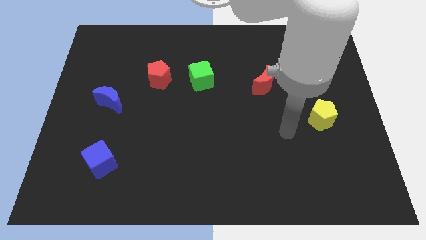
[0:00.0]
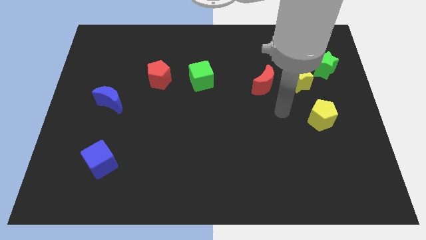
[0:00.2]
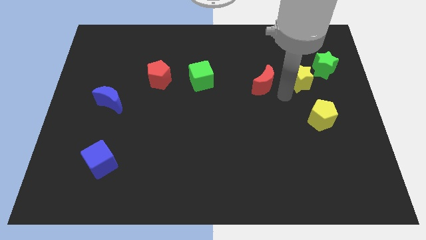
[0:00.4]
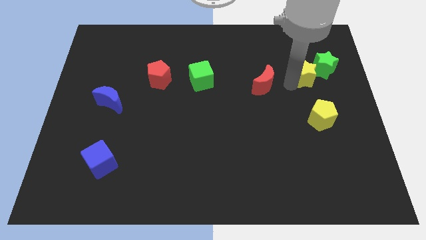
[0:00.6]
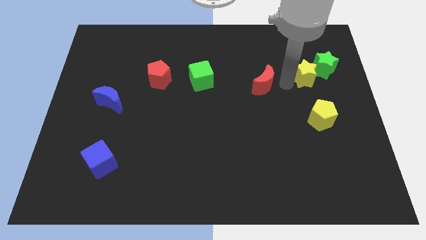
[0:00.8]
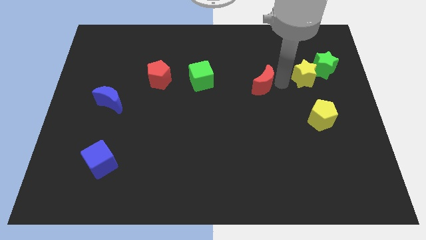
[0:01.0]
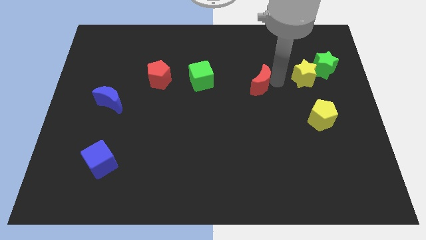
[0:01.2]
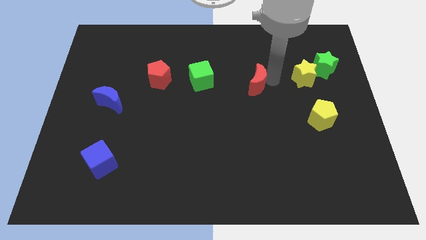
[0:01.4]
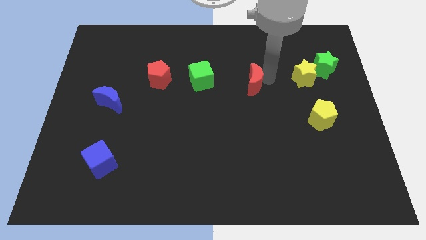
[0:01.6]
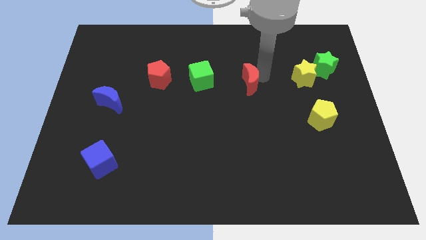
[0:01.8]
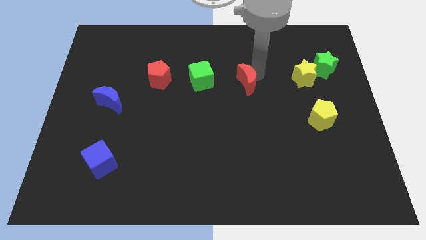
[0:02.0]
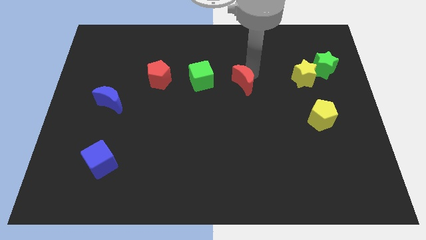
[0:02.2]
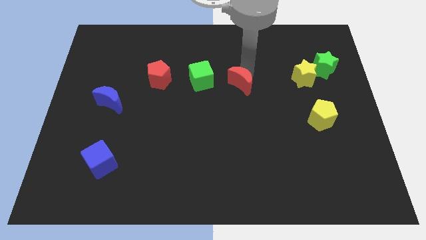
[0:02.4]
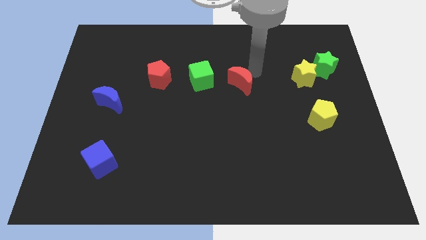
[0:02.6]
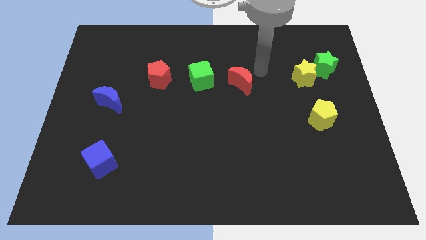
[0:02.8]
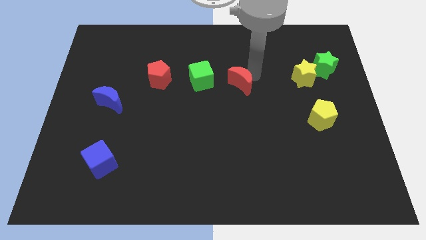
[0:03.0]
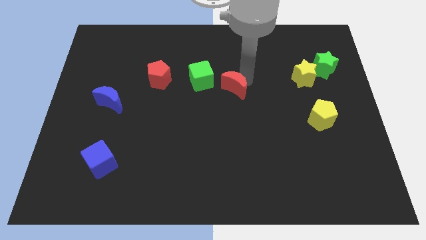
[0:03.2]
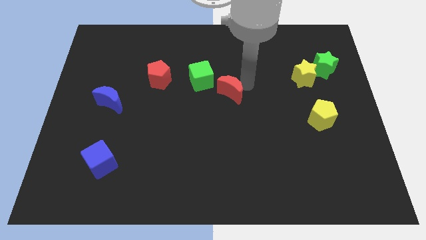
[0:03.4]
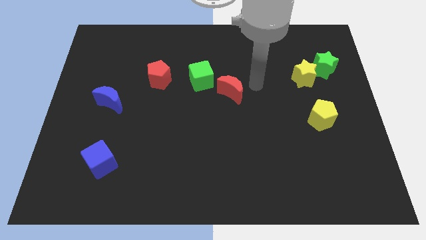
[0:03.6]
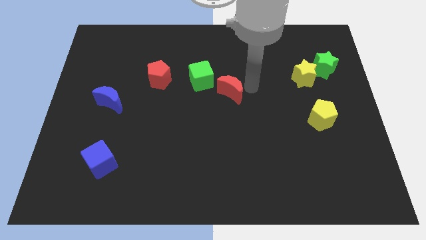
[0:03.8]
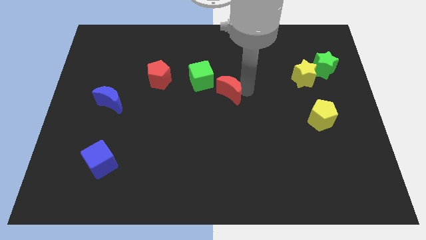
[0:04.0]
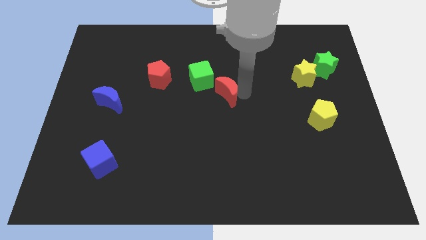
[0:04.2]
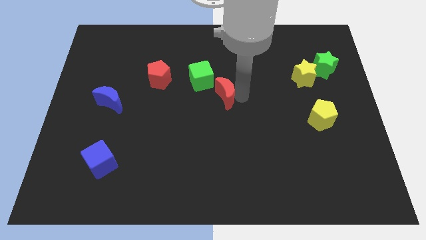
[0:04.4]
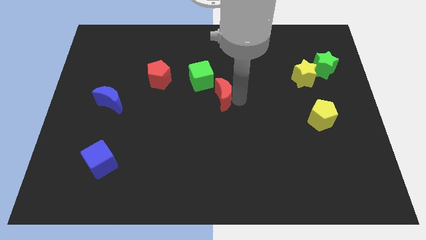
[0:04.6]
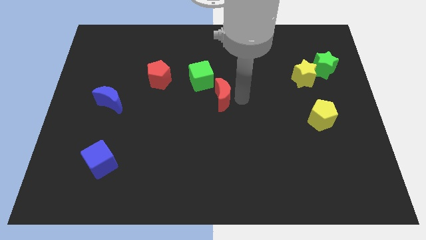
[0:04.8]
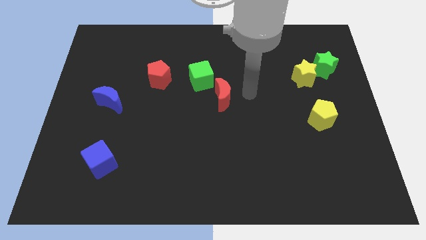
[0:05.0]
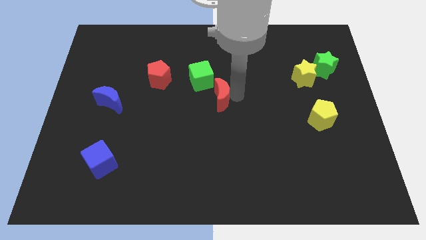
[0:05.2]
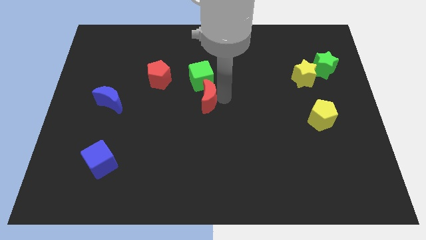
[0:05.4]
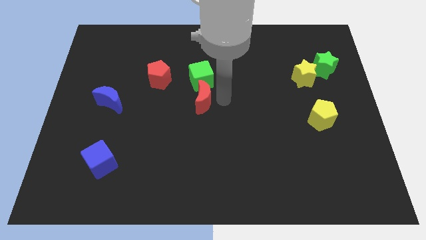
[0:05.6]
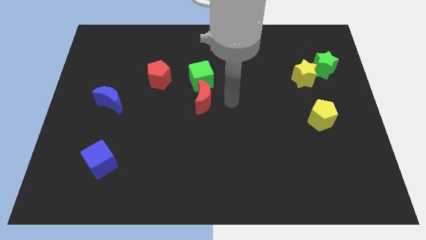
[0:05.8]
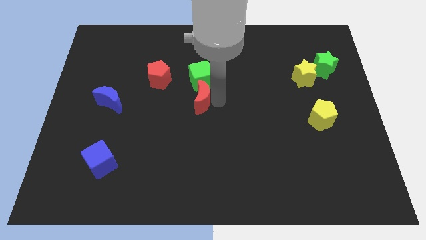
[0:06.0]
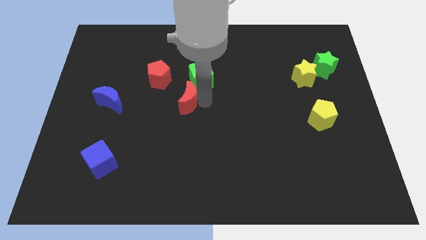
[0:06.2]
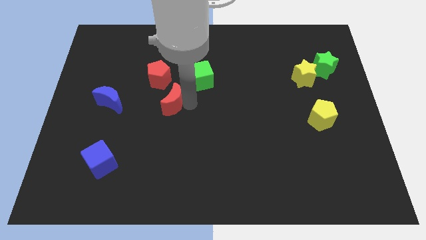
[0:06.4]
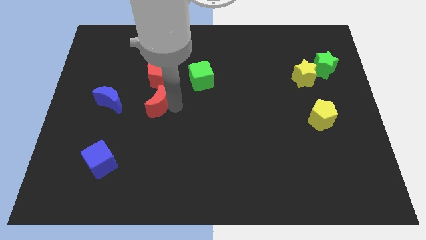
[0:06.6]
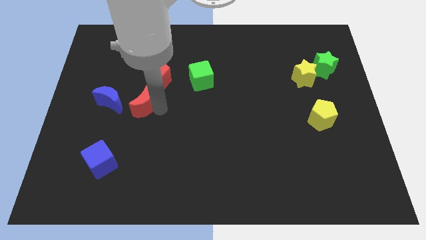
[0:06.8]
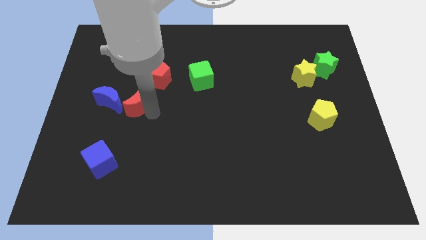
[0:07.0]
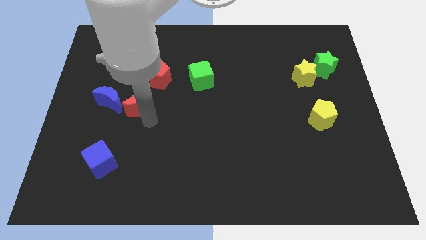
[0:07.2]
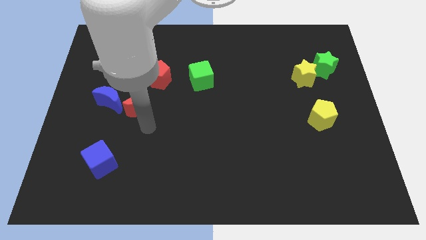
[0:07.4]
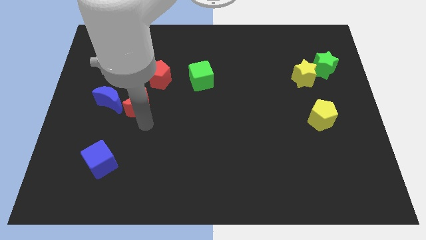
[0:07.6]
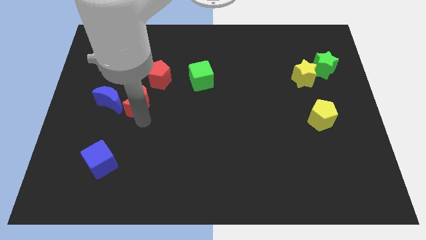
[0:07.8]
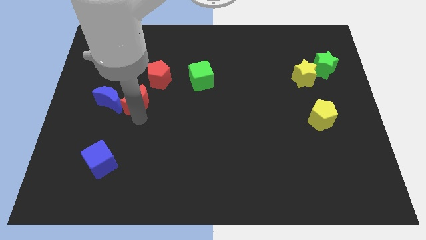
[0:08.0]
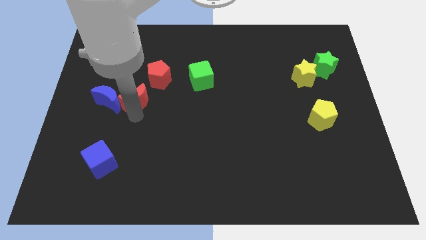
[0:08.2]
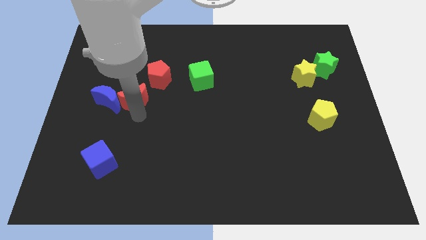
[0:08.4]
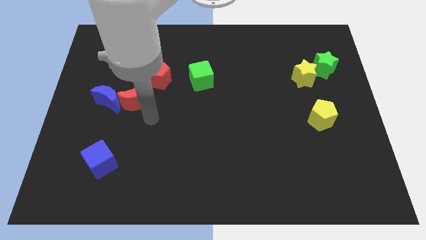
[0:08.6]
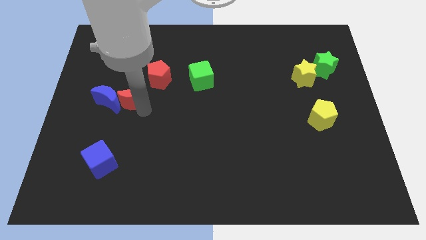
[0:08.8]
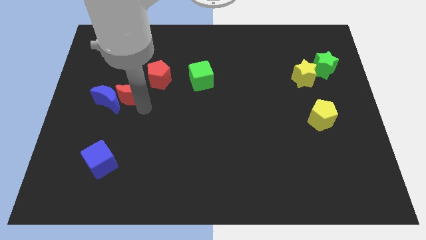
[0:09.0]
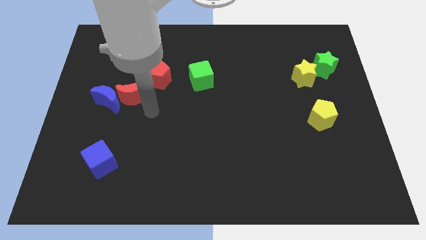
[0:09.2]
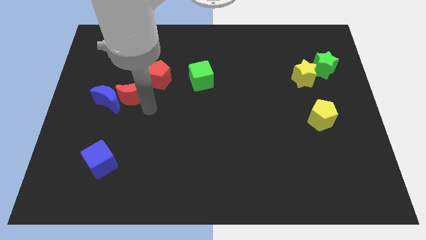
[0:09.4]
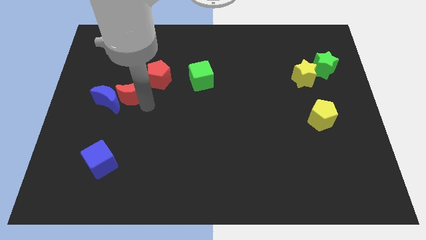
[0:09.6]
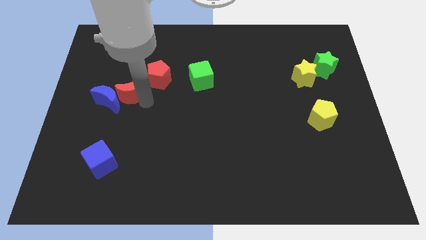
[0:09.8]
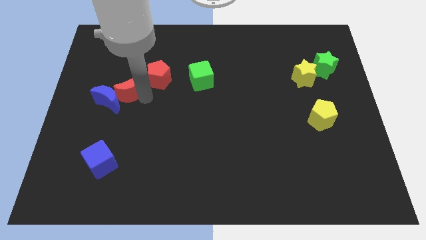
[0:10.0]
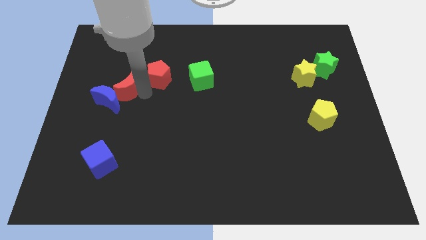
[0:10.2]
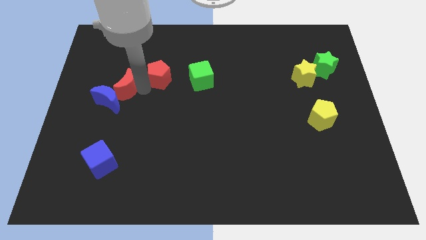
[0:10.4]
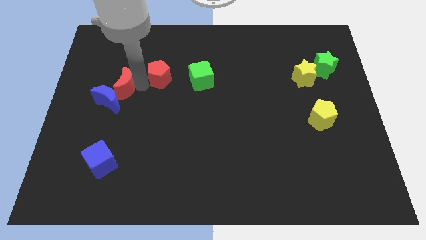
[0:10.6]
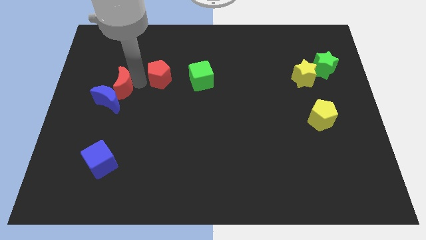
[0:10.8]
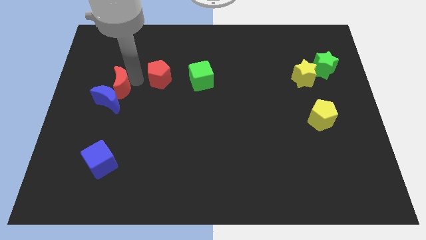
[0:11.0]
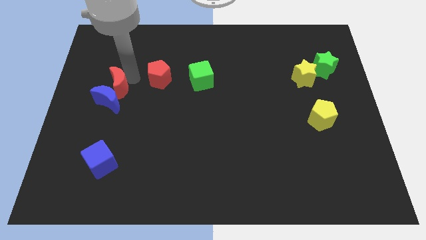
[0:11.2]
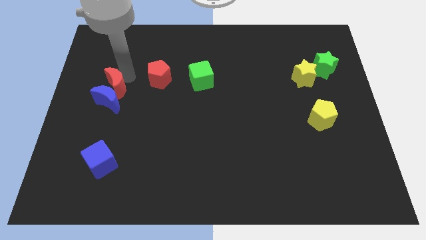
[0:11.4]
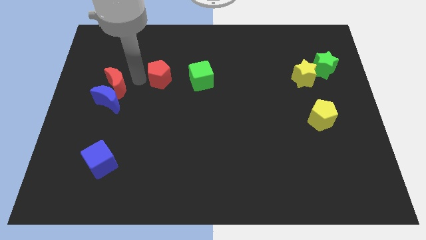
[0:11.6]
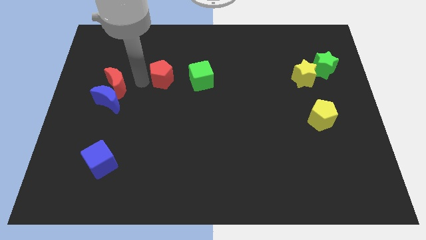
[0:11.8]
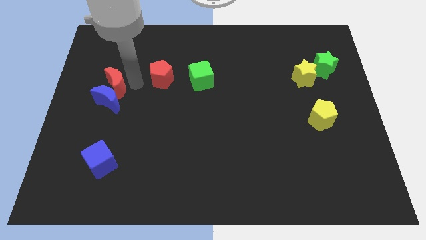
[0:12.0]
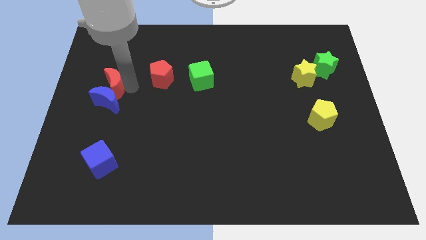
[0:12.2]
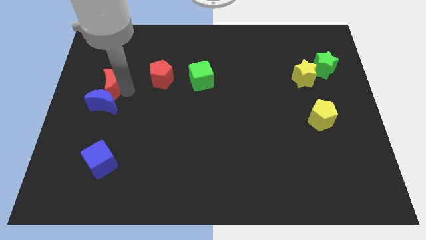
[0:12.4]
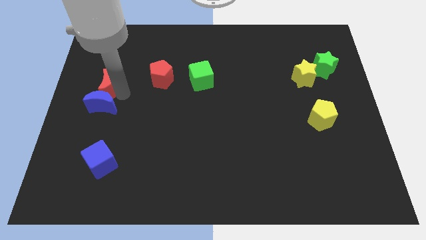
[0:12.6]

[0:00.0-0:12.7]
slide the red moon to the left side of the board
